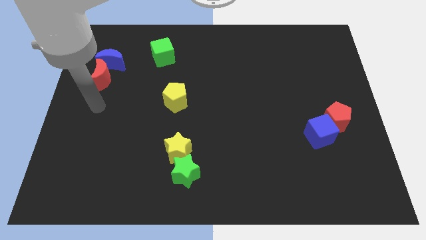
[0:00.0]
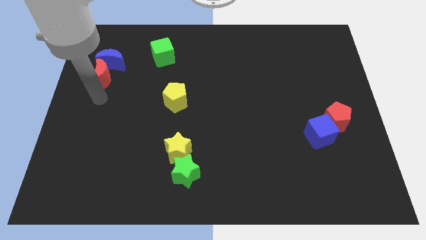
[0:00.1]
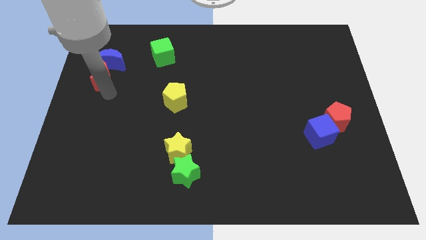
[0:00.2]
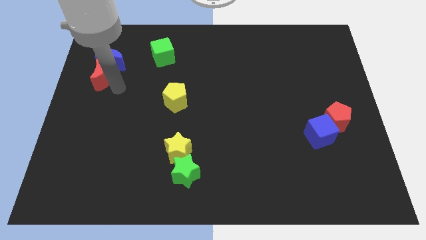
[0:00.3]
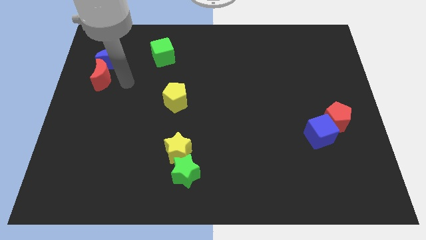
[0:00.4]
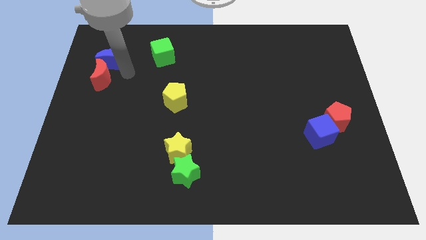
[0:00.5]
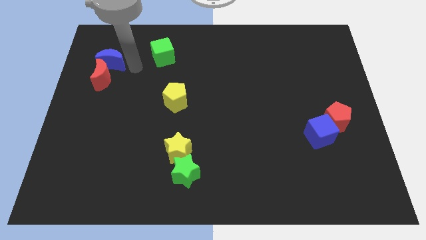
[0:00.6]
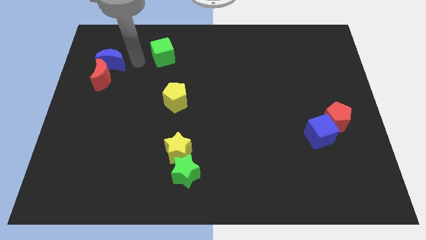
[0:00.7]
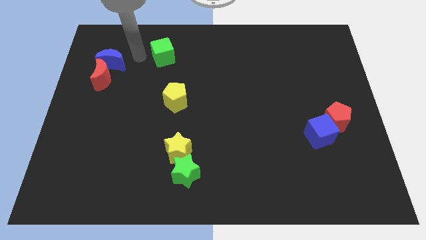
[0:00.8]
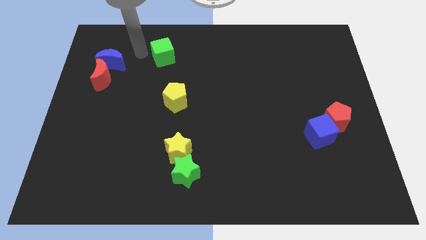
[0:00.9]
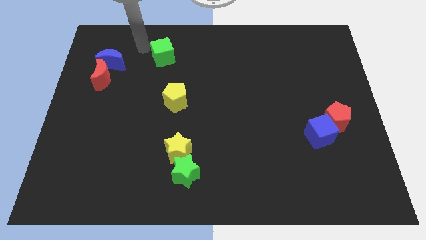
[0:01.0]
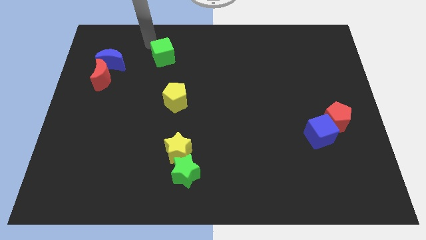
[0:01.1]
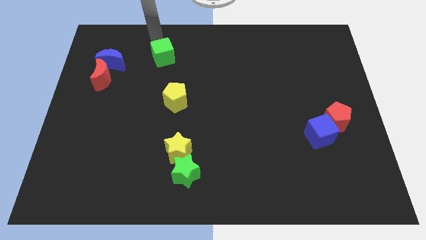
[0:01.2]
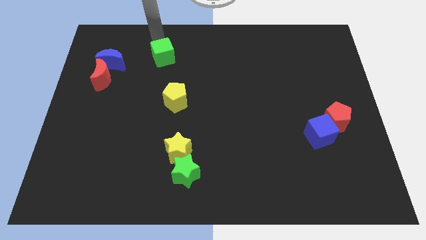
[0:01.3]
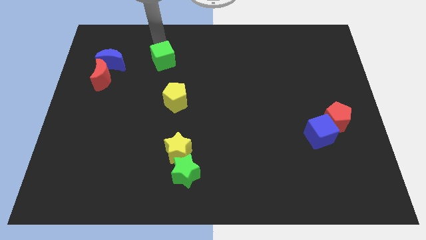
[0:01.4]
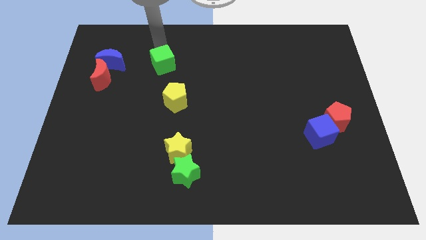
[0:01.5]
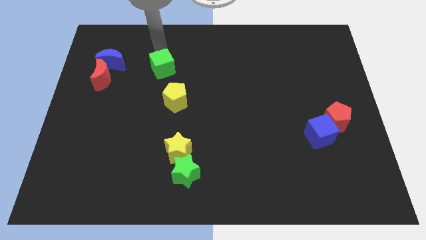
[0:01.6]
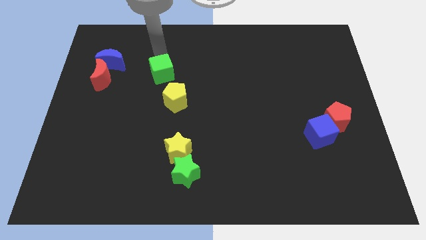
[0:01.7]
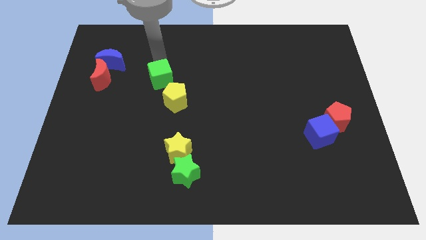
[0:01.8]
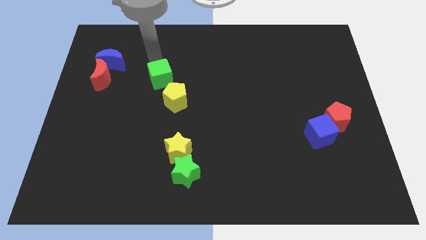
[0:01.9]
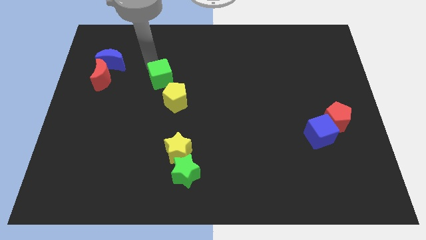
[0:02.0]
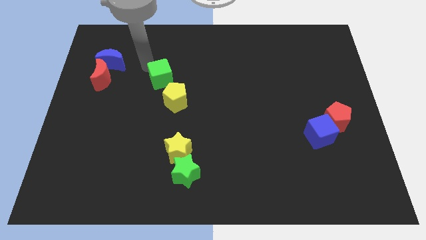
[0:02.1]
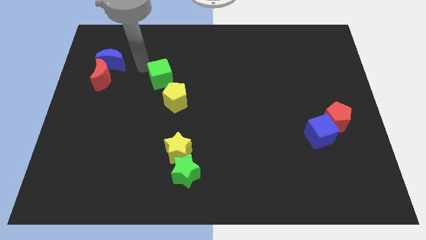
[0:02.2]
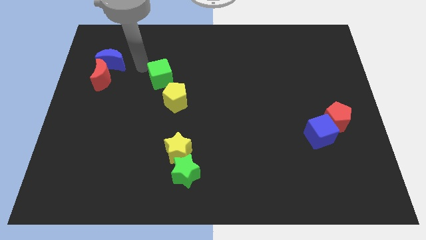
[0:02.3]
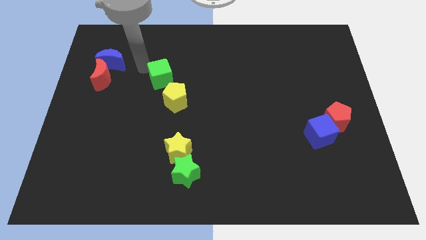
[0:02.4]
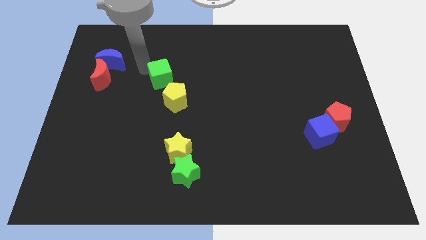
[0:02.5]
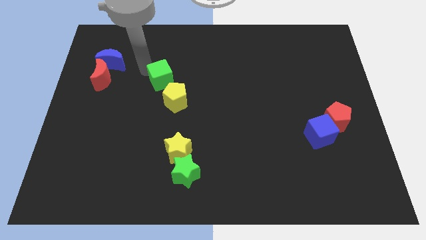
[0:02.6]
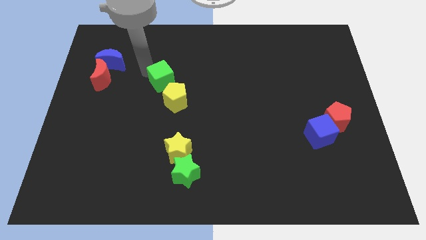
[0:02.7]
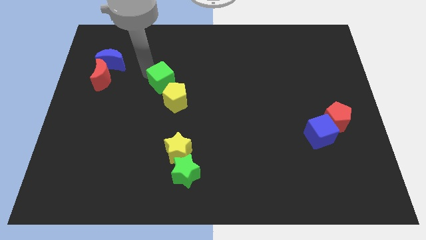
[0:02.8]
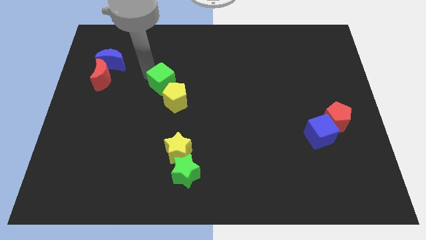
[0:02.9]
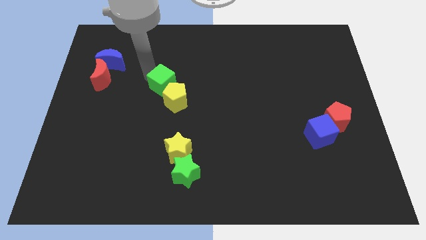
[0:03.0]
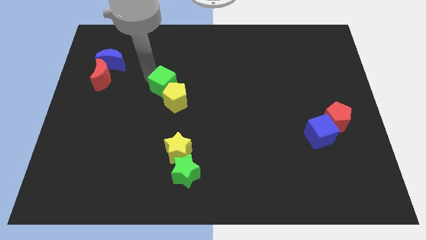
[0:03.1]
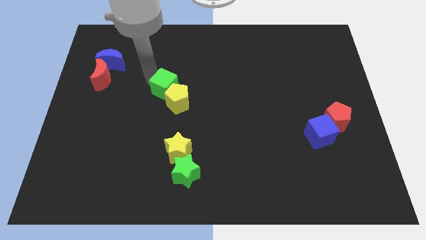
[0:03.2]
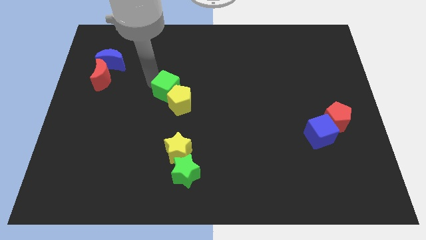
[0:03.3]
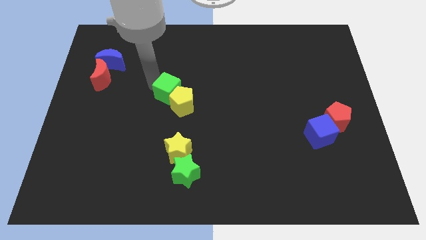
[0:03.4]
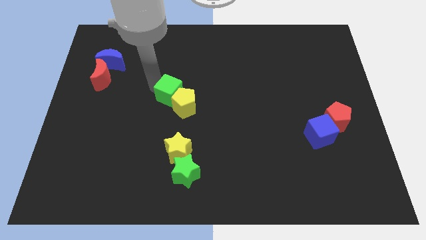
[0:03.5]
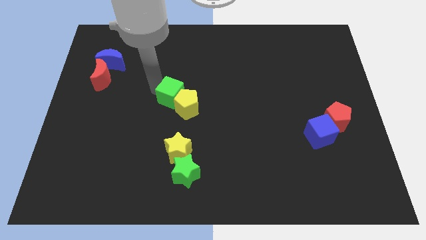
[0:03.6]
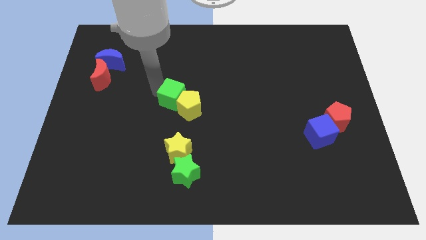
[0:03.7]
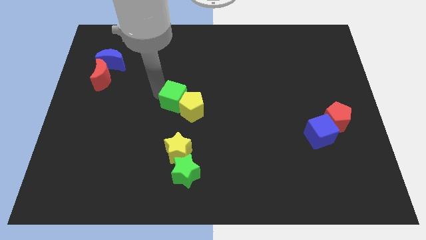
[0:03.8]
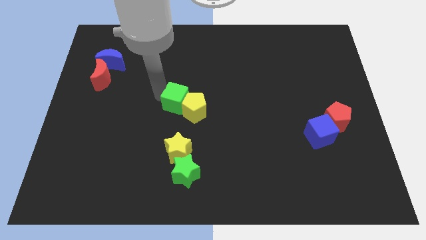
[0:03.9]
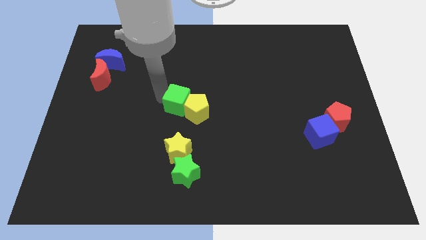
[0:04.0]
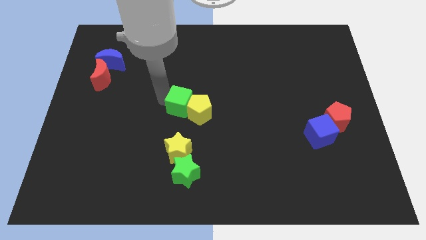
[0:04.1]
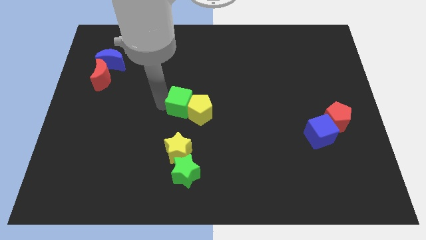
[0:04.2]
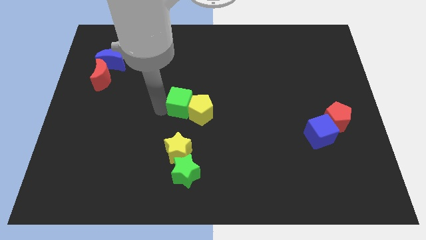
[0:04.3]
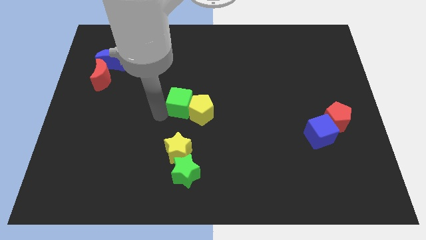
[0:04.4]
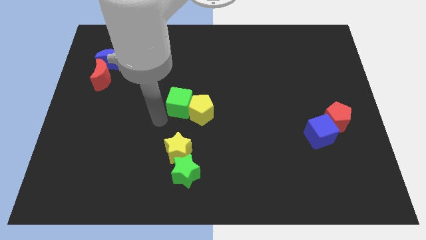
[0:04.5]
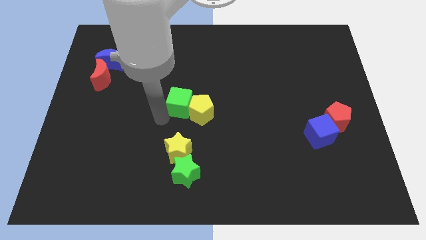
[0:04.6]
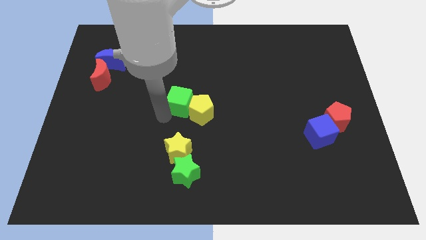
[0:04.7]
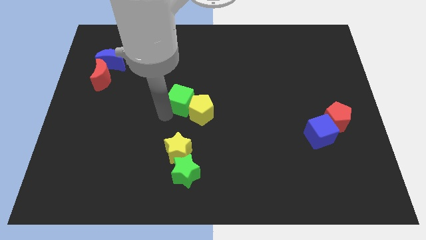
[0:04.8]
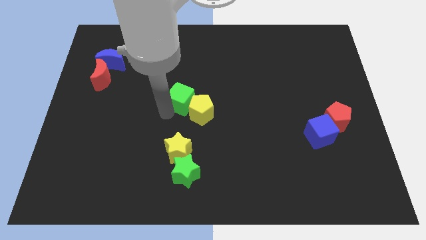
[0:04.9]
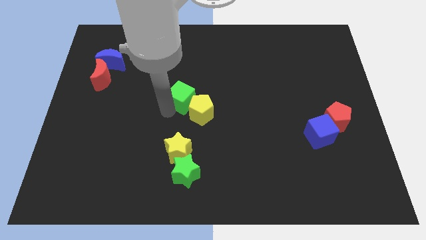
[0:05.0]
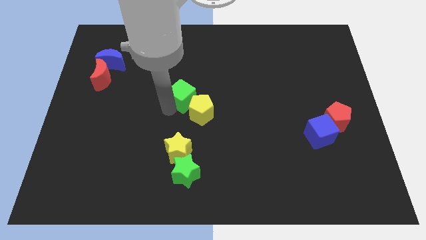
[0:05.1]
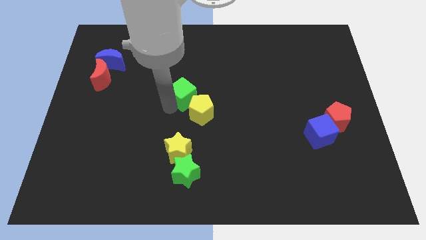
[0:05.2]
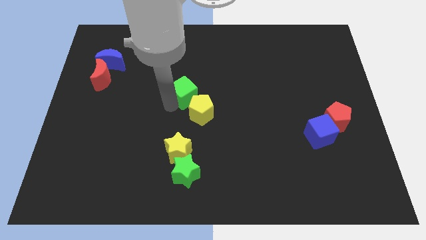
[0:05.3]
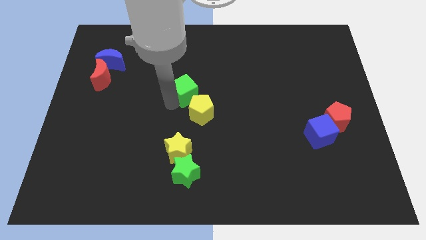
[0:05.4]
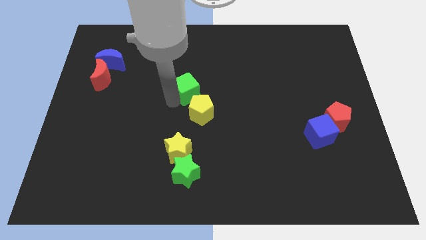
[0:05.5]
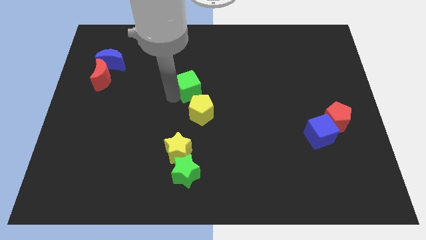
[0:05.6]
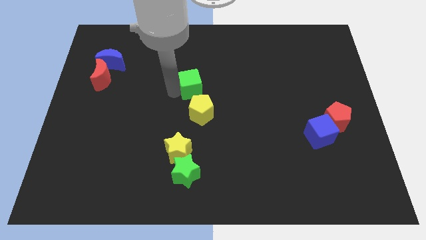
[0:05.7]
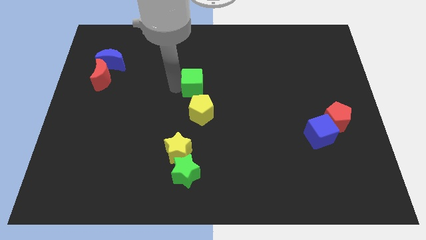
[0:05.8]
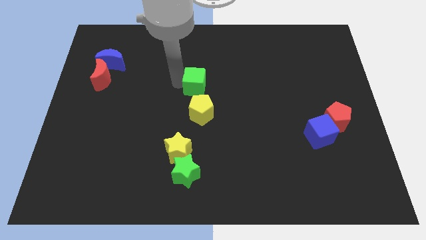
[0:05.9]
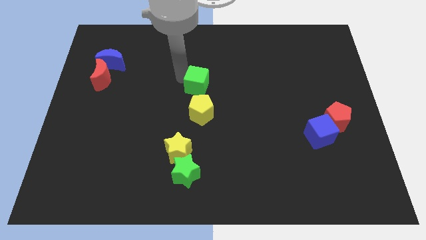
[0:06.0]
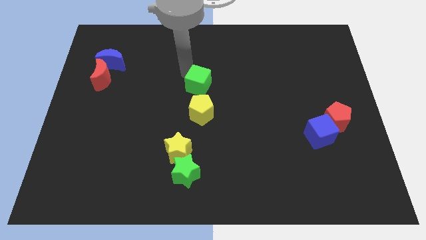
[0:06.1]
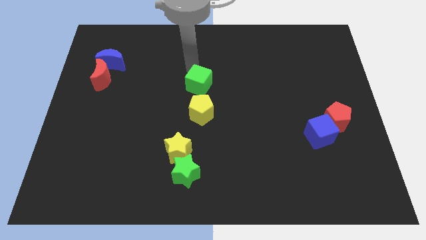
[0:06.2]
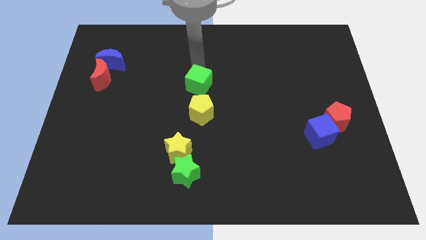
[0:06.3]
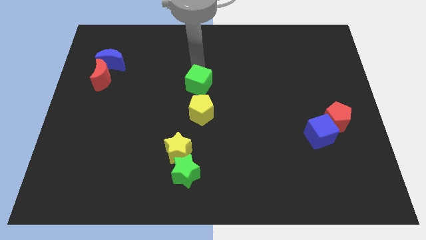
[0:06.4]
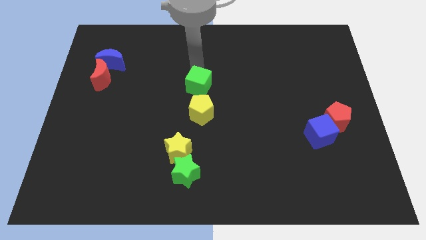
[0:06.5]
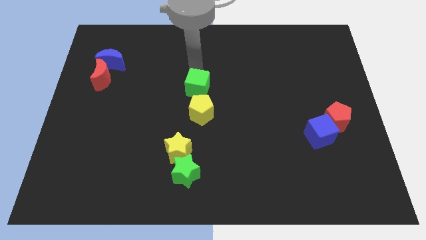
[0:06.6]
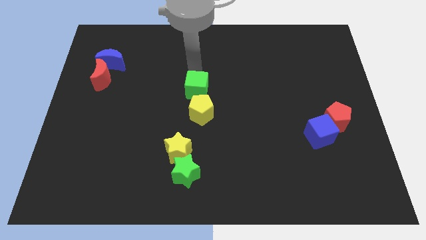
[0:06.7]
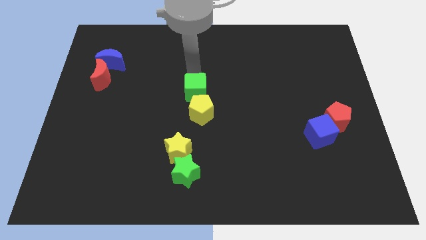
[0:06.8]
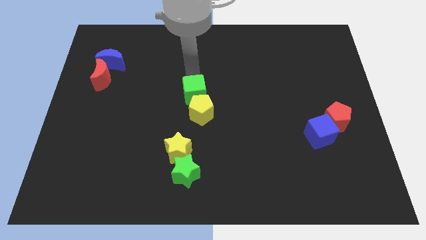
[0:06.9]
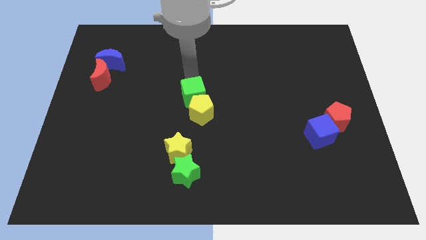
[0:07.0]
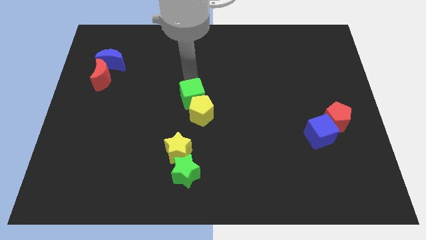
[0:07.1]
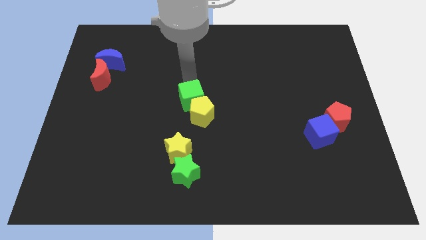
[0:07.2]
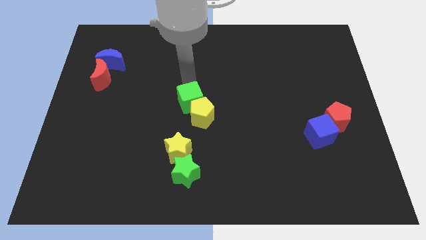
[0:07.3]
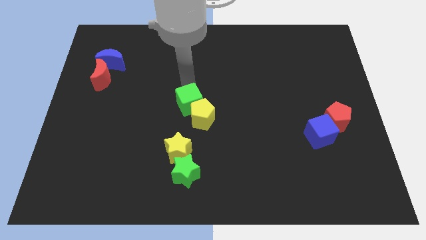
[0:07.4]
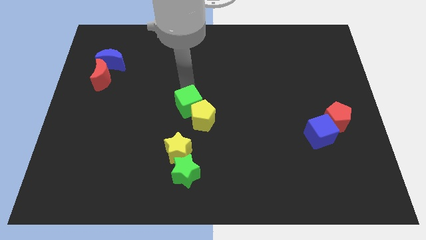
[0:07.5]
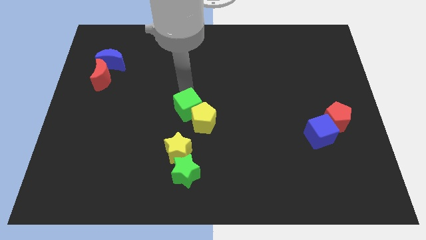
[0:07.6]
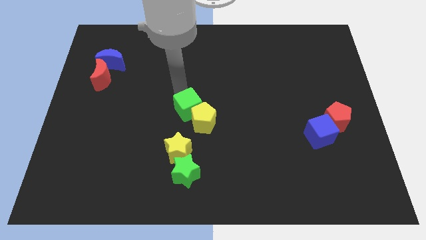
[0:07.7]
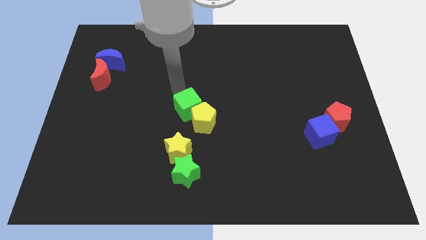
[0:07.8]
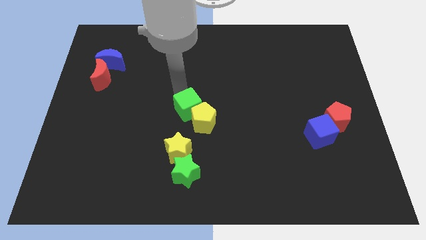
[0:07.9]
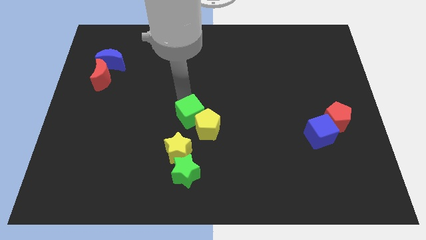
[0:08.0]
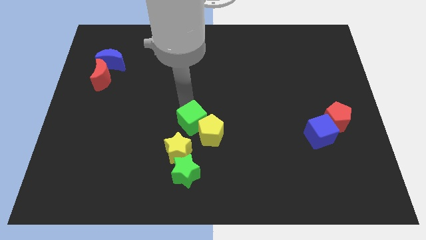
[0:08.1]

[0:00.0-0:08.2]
move the green cube to the top right side of the yellow star
